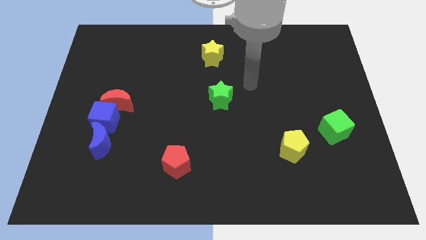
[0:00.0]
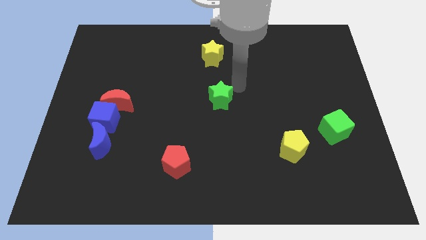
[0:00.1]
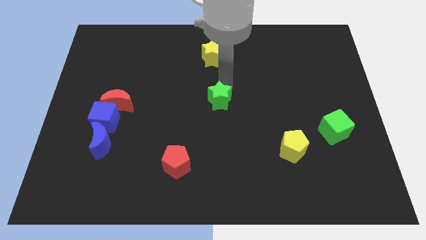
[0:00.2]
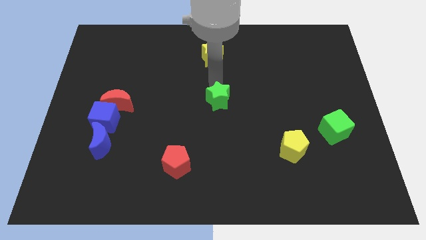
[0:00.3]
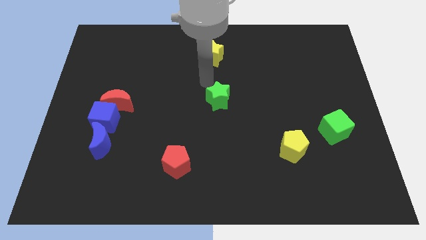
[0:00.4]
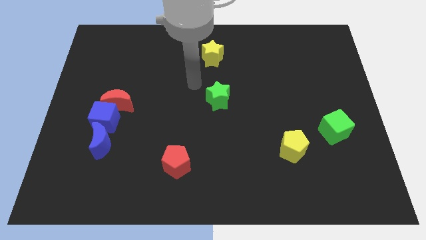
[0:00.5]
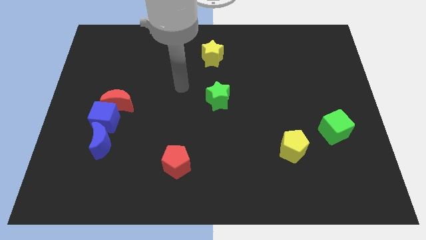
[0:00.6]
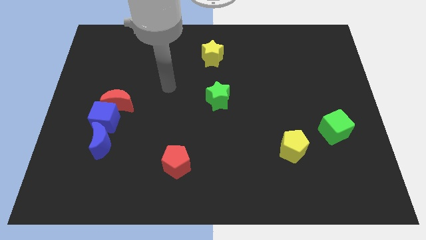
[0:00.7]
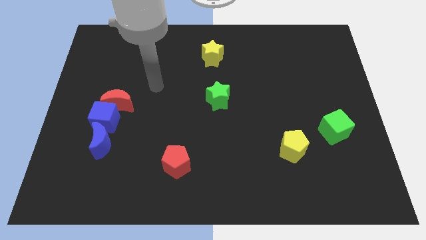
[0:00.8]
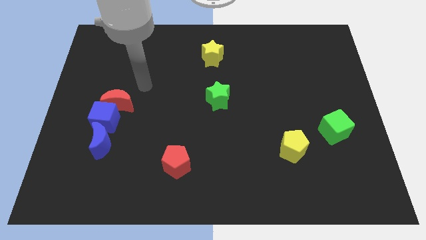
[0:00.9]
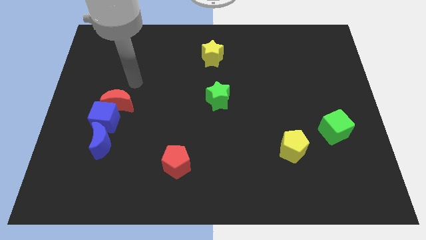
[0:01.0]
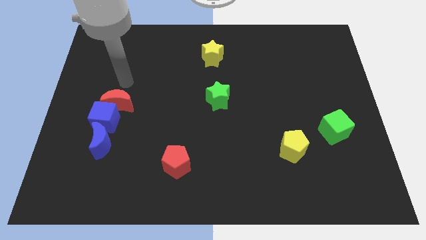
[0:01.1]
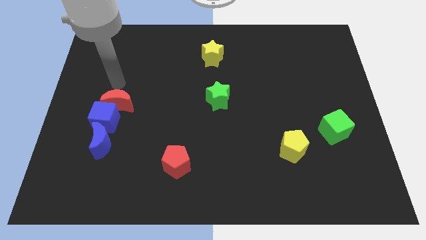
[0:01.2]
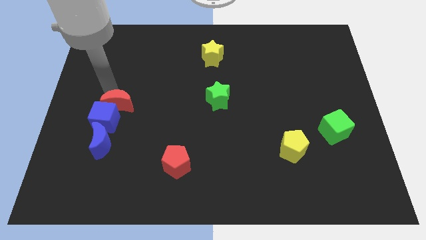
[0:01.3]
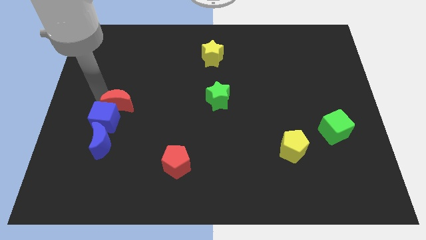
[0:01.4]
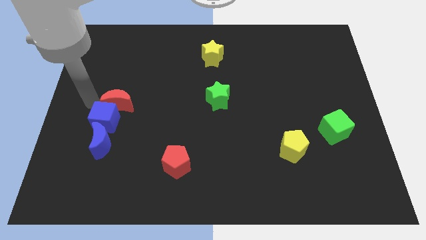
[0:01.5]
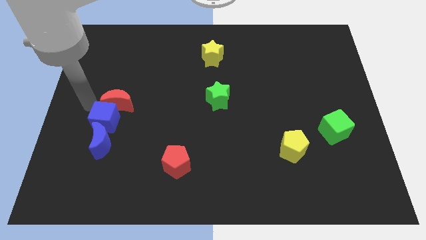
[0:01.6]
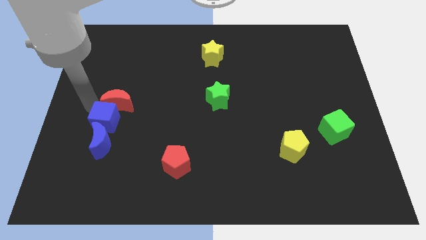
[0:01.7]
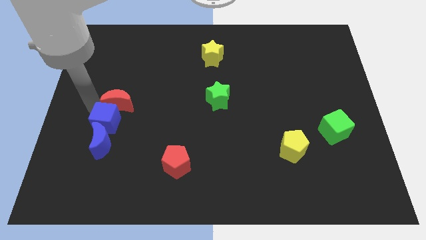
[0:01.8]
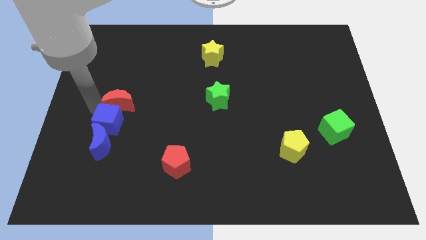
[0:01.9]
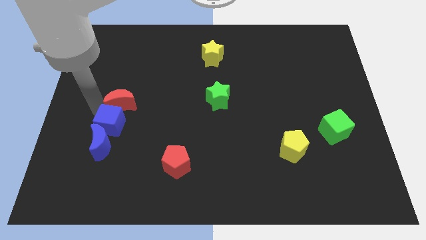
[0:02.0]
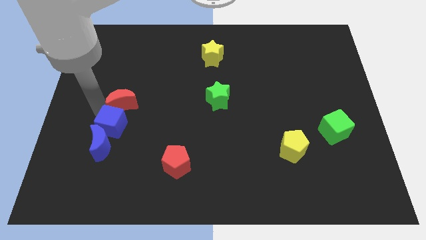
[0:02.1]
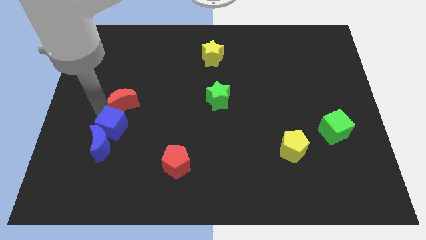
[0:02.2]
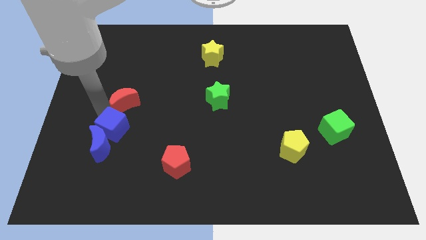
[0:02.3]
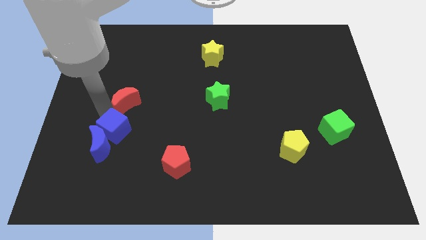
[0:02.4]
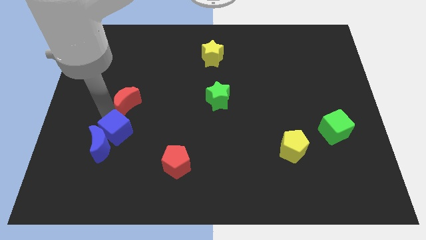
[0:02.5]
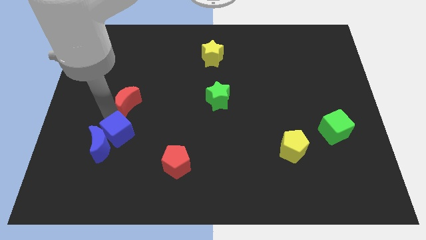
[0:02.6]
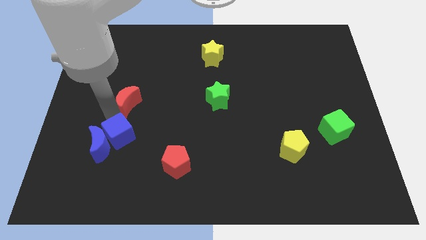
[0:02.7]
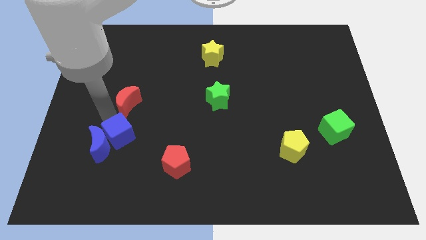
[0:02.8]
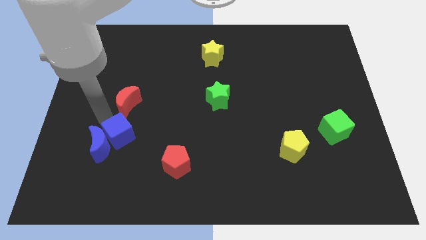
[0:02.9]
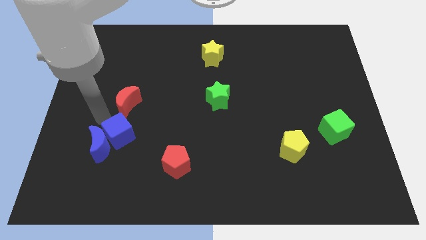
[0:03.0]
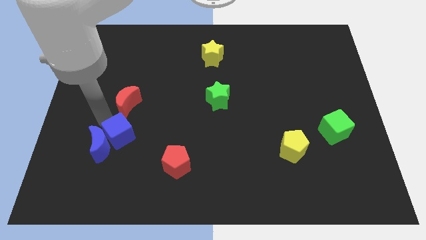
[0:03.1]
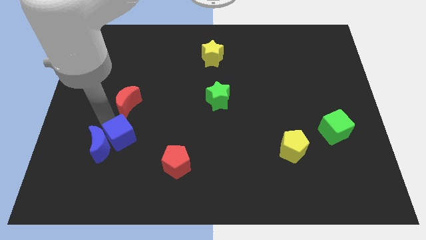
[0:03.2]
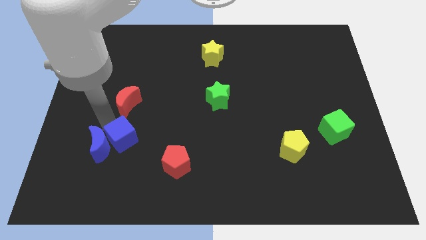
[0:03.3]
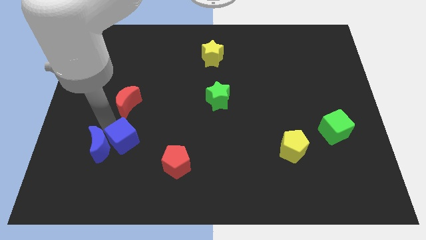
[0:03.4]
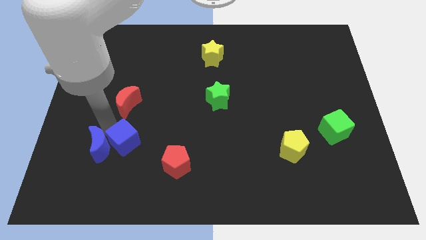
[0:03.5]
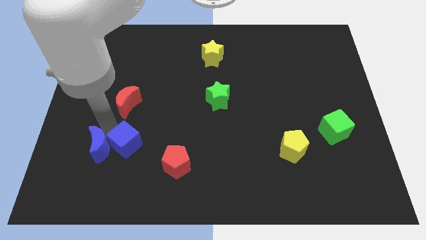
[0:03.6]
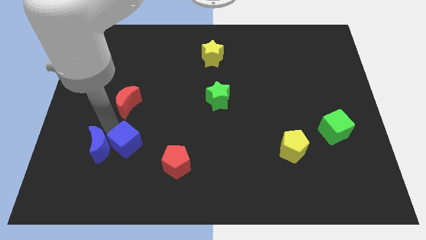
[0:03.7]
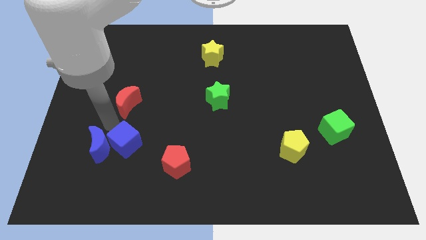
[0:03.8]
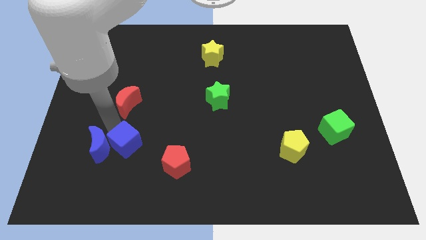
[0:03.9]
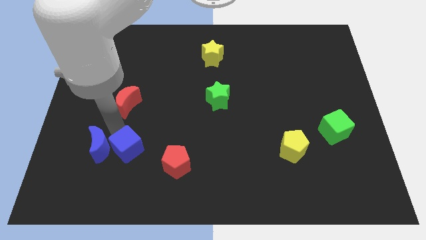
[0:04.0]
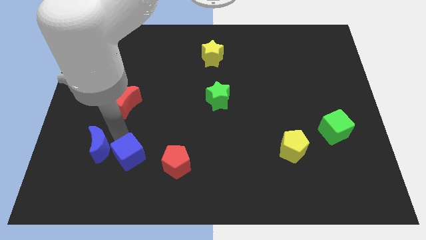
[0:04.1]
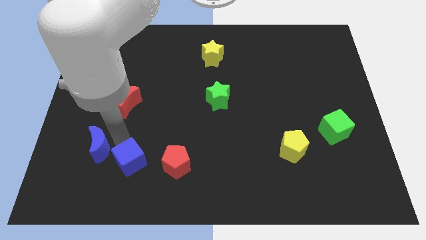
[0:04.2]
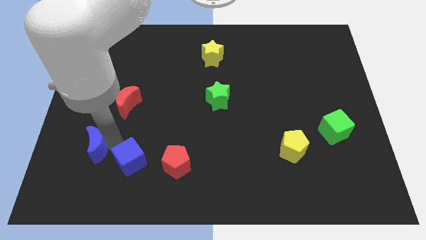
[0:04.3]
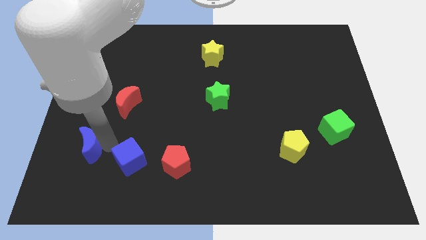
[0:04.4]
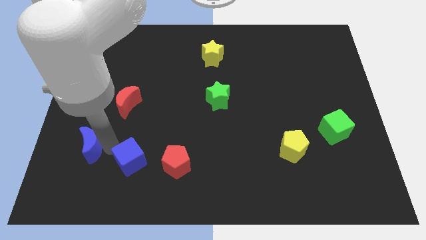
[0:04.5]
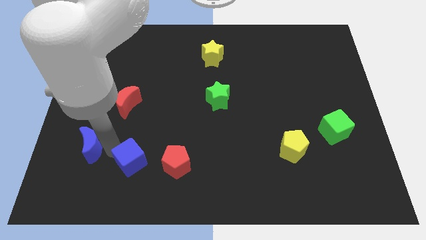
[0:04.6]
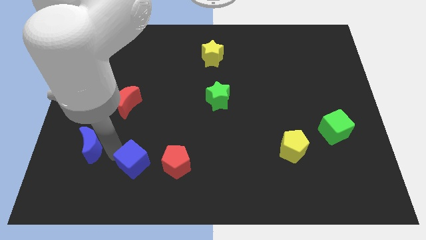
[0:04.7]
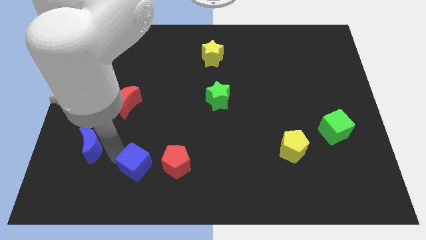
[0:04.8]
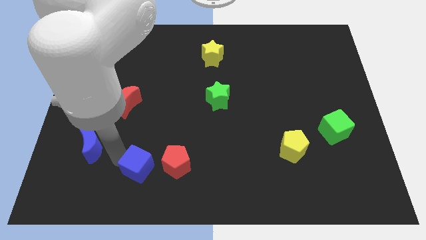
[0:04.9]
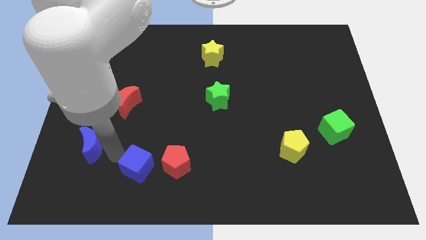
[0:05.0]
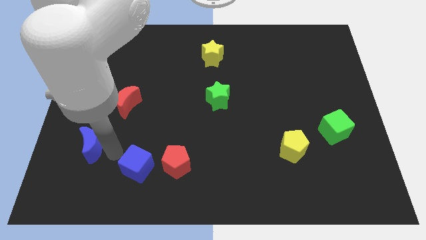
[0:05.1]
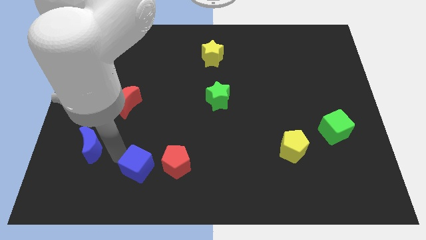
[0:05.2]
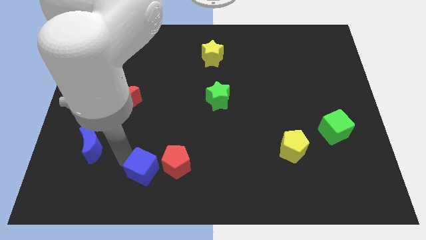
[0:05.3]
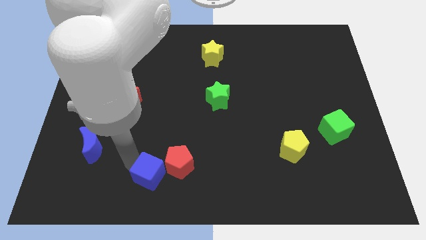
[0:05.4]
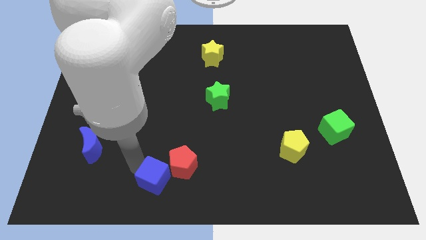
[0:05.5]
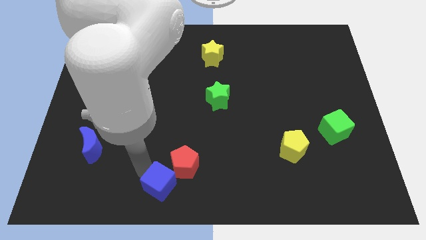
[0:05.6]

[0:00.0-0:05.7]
put the blue cube to the bottom side

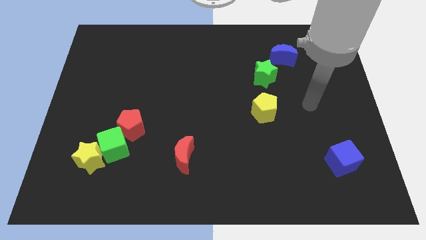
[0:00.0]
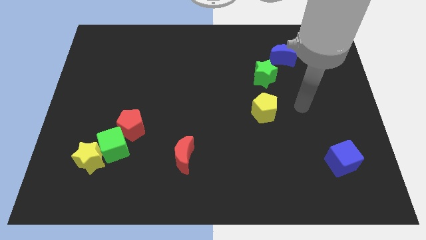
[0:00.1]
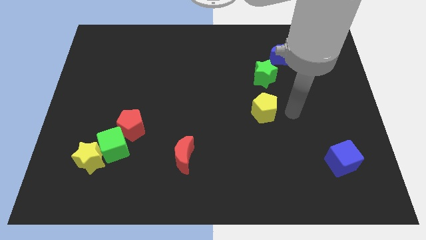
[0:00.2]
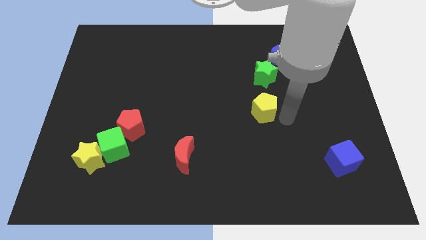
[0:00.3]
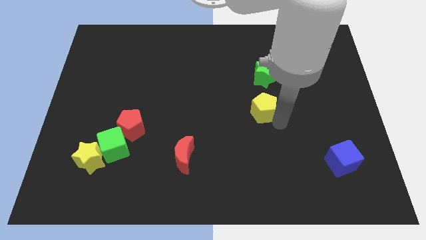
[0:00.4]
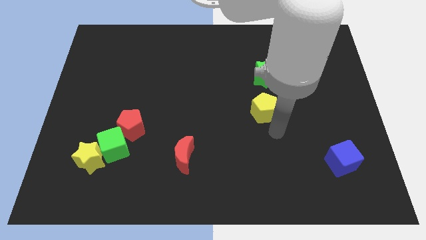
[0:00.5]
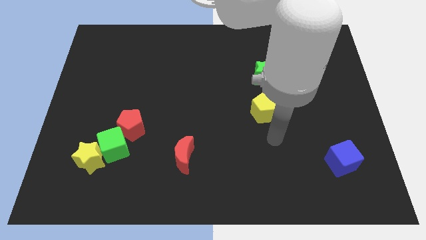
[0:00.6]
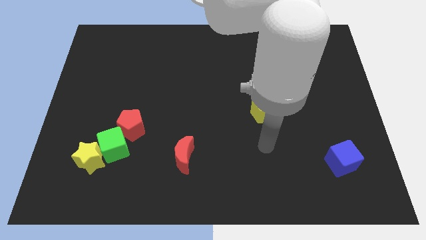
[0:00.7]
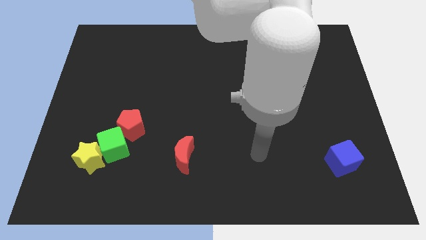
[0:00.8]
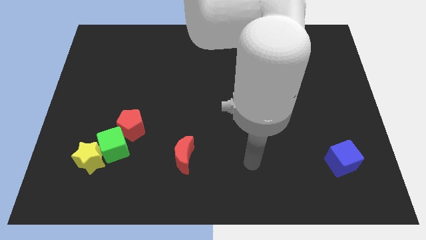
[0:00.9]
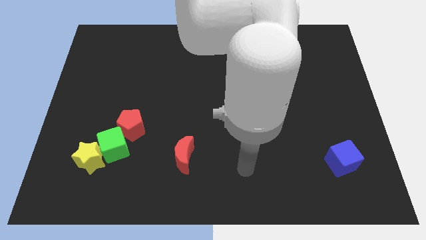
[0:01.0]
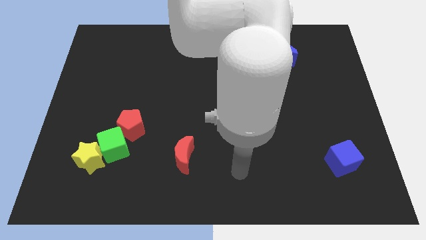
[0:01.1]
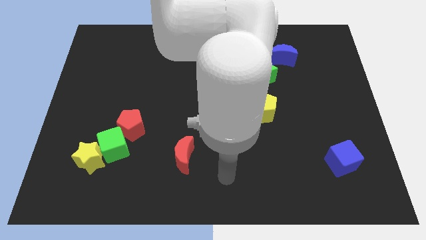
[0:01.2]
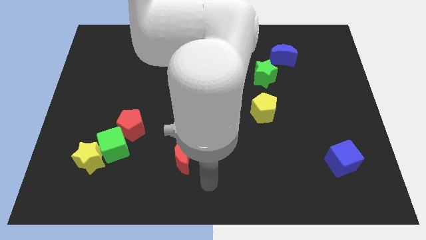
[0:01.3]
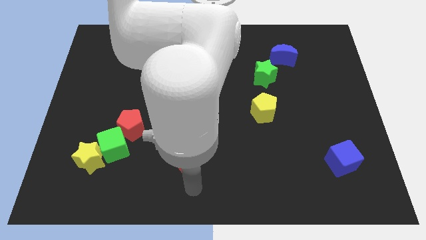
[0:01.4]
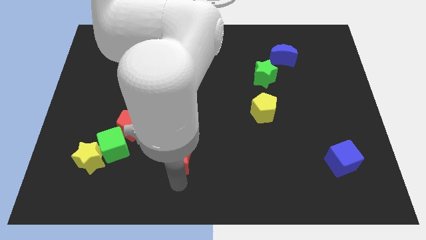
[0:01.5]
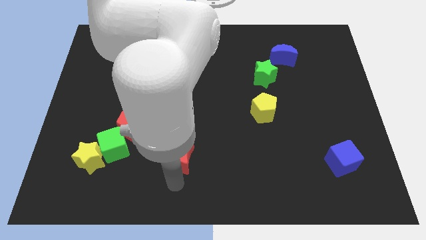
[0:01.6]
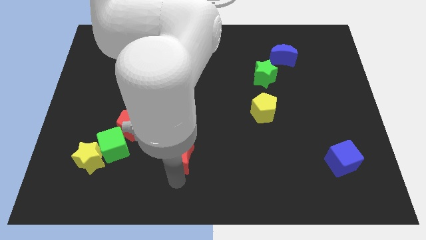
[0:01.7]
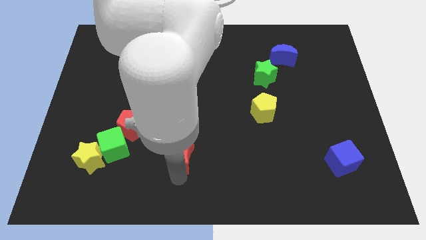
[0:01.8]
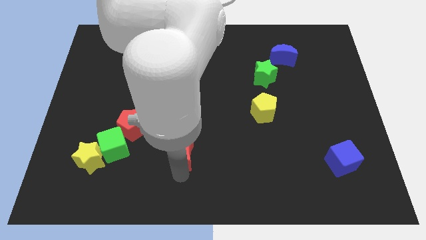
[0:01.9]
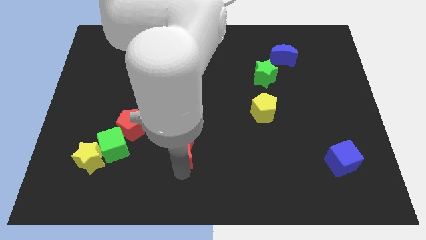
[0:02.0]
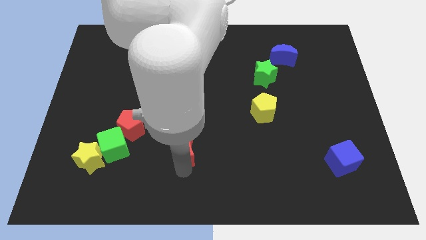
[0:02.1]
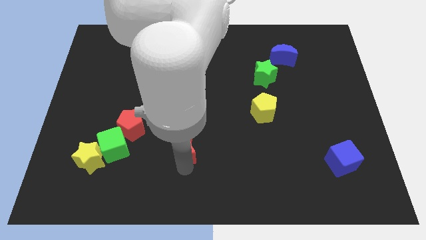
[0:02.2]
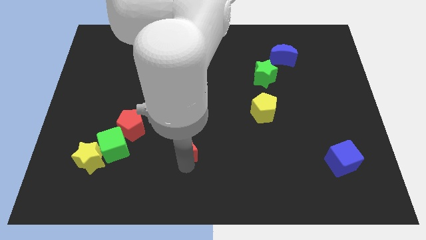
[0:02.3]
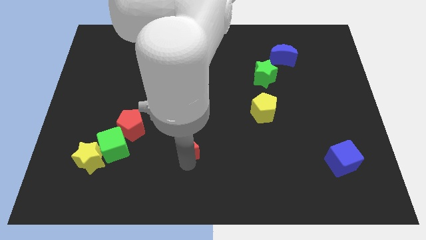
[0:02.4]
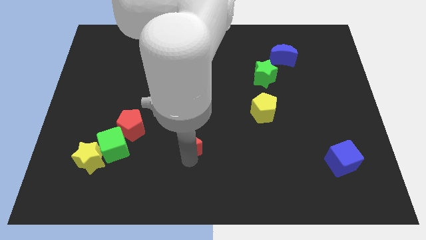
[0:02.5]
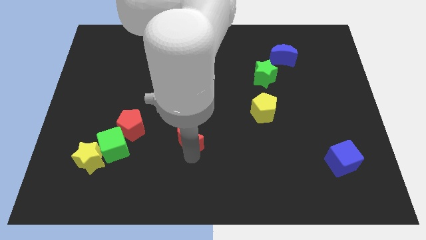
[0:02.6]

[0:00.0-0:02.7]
push the red moon to the middle of the board
